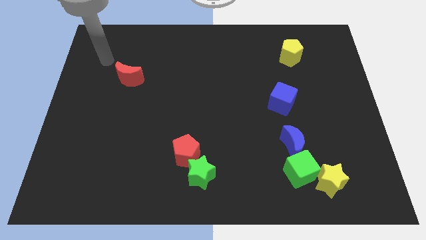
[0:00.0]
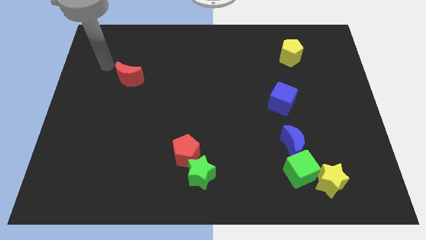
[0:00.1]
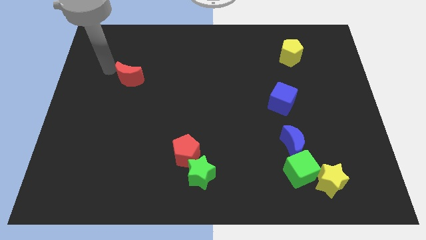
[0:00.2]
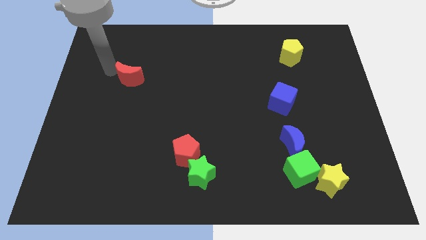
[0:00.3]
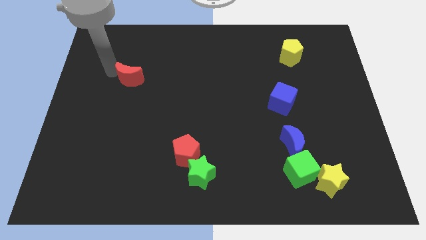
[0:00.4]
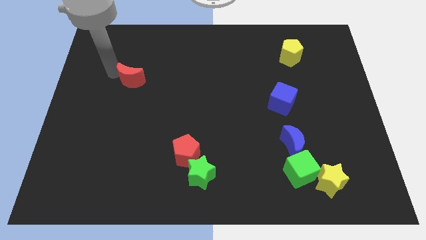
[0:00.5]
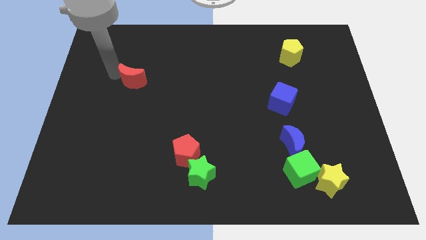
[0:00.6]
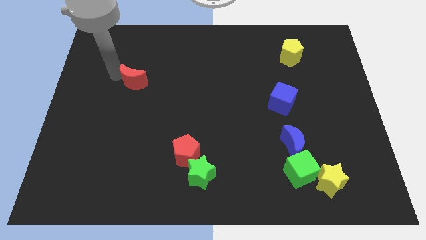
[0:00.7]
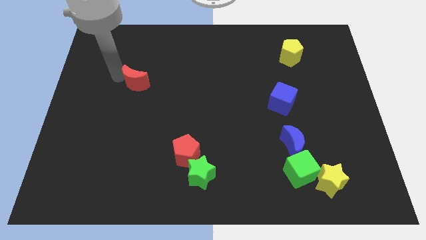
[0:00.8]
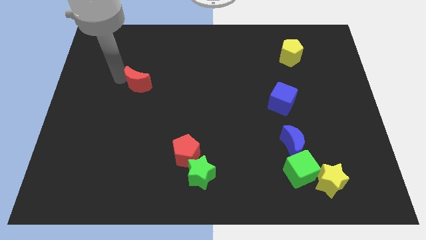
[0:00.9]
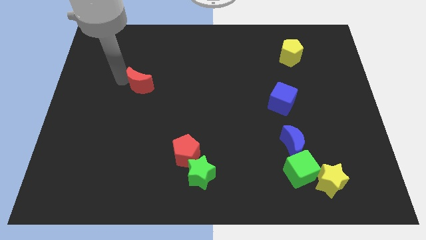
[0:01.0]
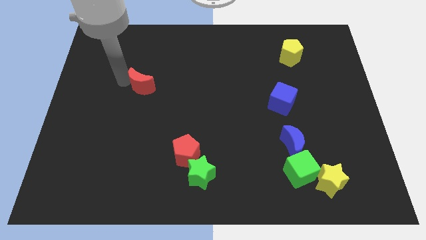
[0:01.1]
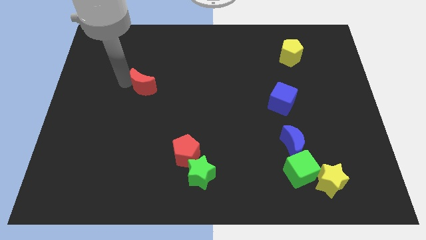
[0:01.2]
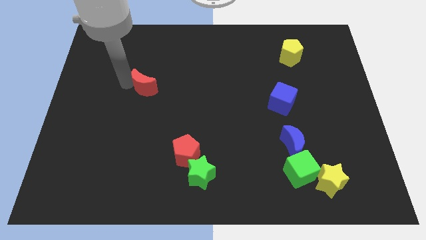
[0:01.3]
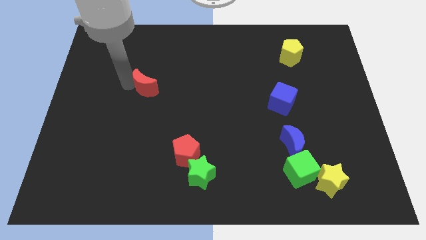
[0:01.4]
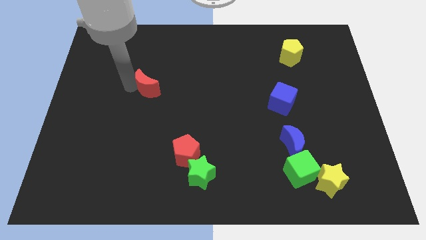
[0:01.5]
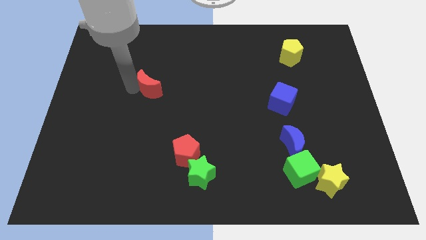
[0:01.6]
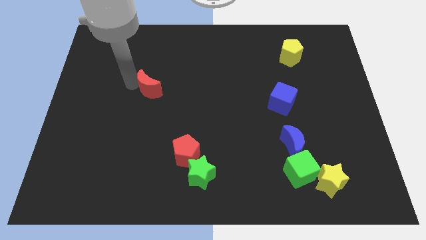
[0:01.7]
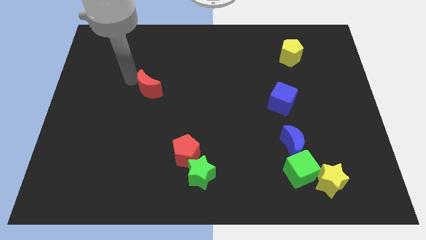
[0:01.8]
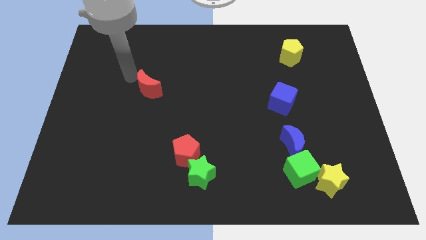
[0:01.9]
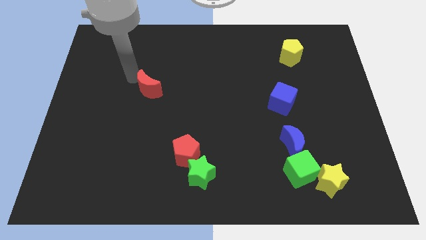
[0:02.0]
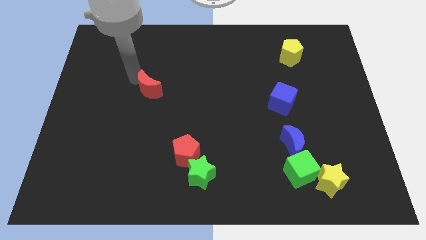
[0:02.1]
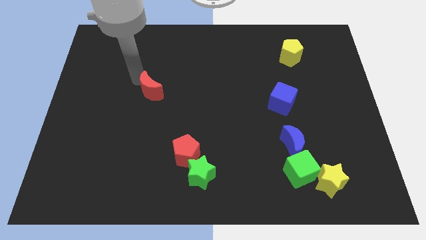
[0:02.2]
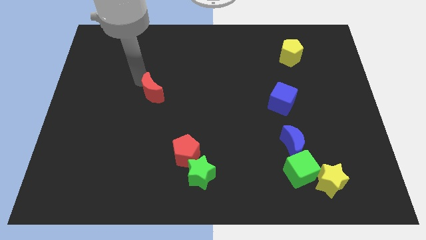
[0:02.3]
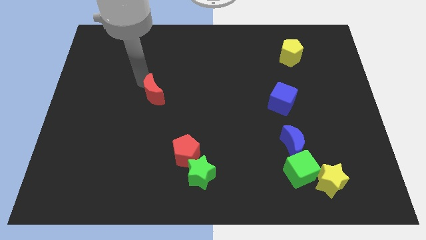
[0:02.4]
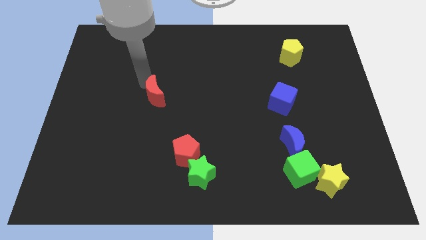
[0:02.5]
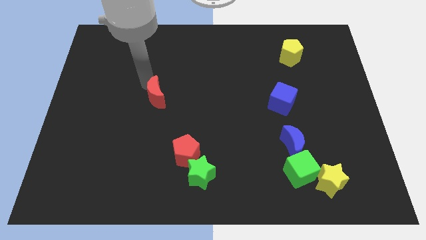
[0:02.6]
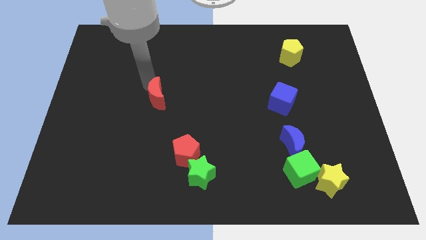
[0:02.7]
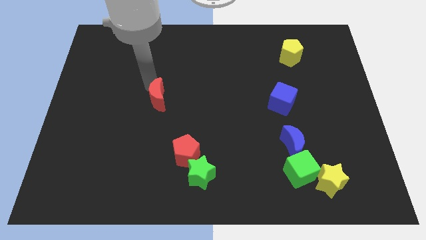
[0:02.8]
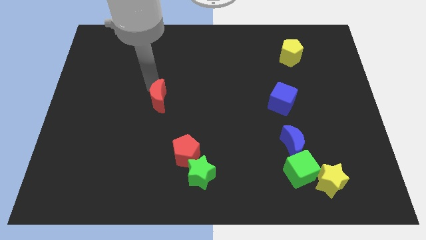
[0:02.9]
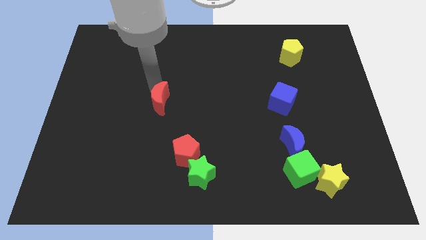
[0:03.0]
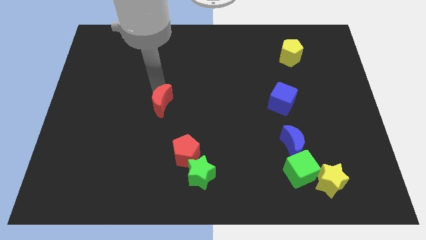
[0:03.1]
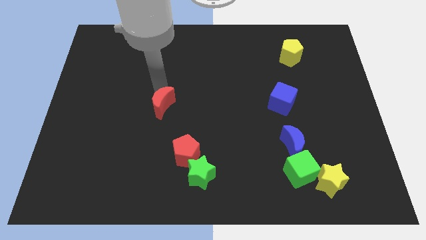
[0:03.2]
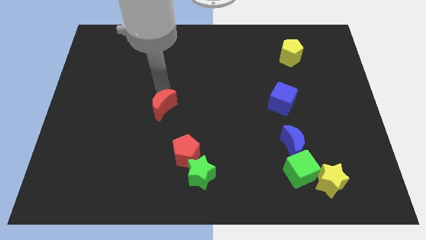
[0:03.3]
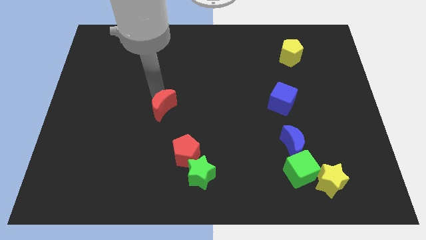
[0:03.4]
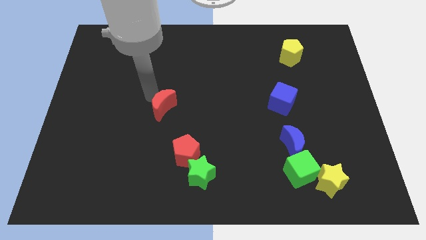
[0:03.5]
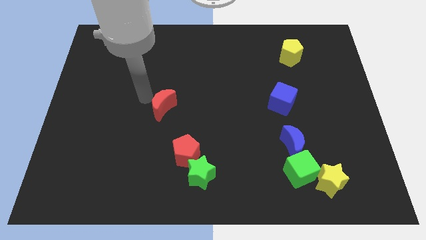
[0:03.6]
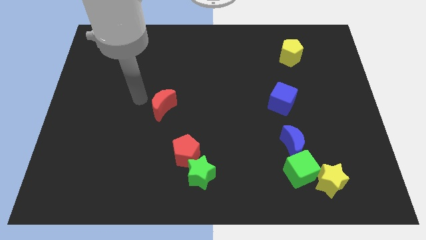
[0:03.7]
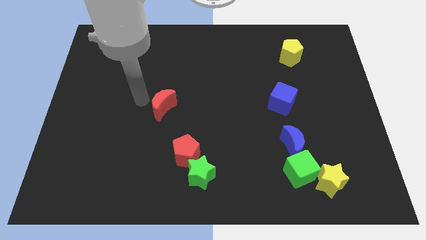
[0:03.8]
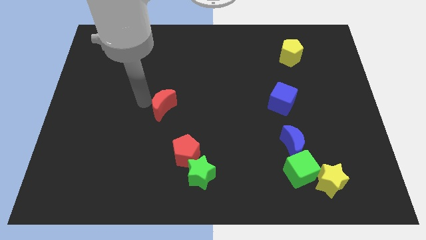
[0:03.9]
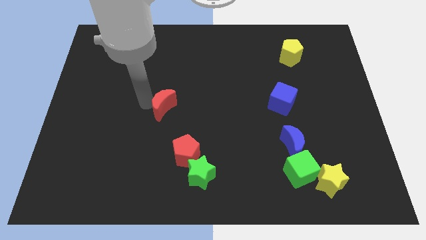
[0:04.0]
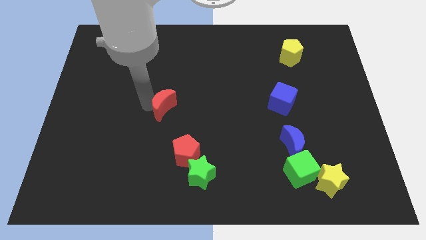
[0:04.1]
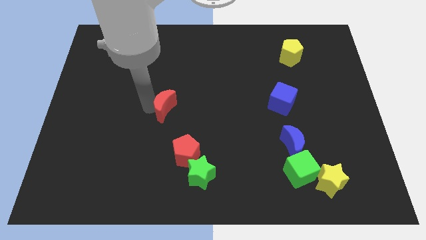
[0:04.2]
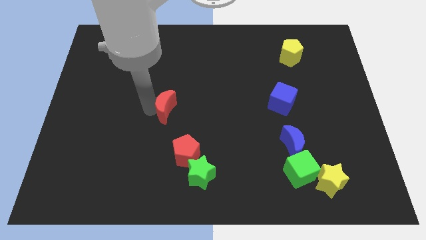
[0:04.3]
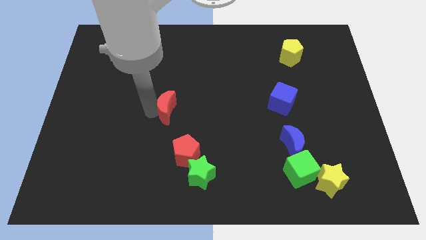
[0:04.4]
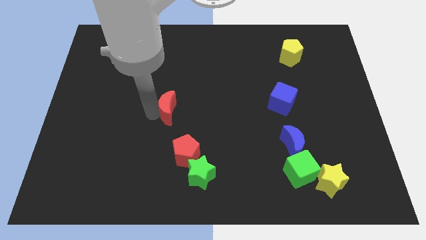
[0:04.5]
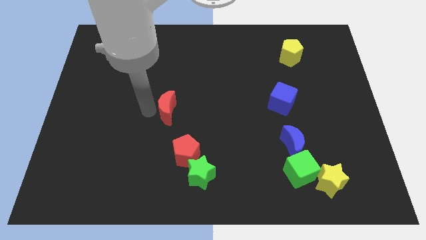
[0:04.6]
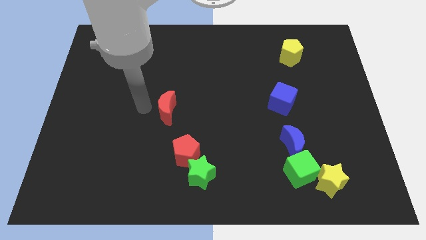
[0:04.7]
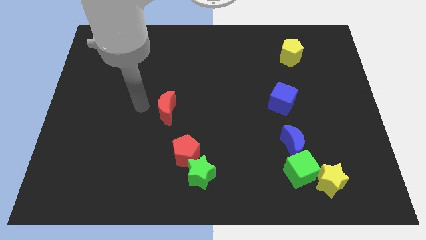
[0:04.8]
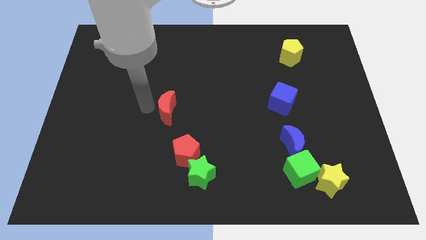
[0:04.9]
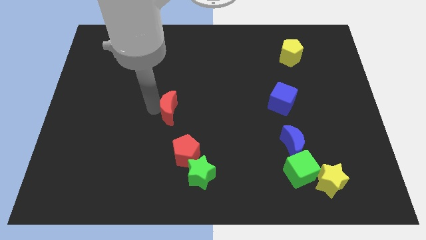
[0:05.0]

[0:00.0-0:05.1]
put the red moon above the red pentagon

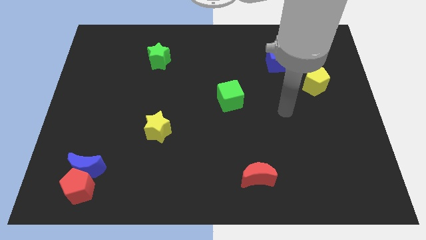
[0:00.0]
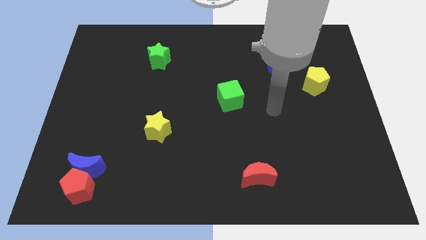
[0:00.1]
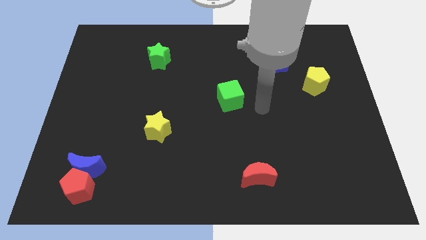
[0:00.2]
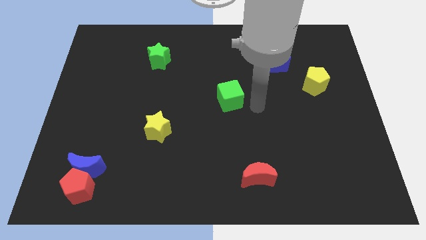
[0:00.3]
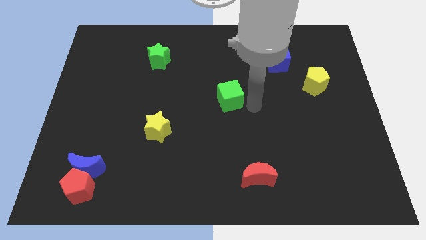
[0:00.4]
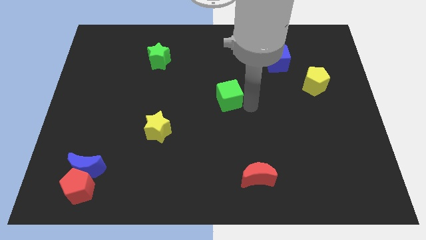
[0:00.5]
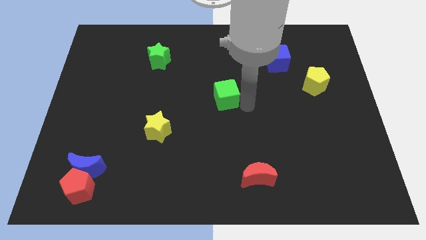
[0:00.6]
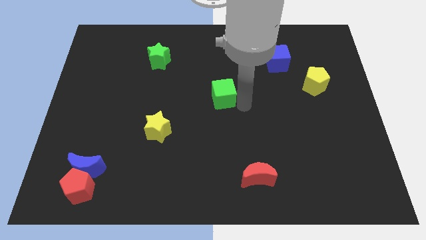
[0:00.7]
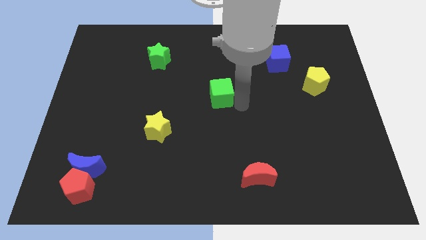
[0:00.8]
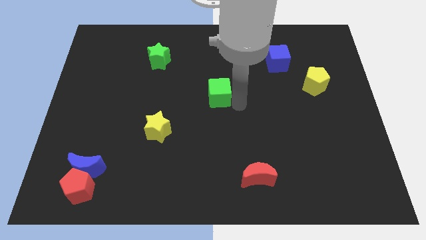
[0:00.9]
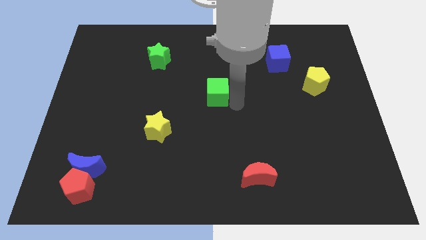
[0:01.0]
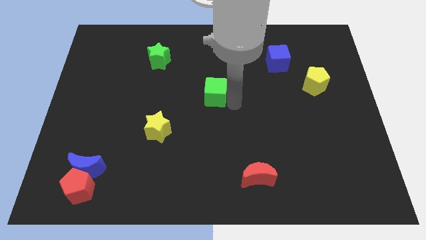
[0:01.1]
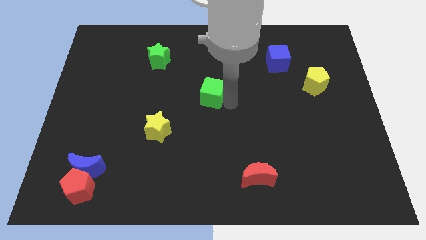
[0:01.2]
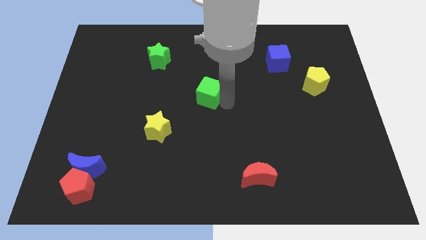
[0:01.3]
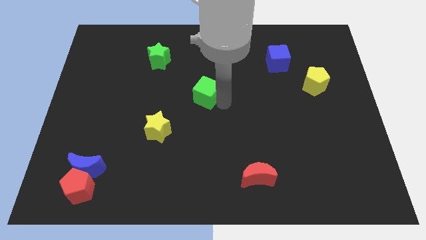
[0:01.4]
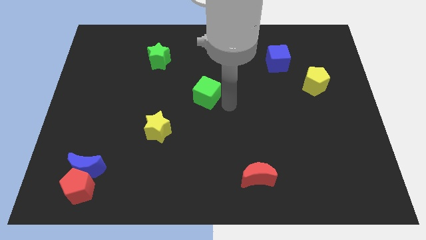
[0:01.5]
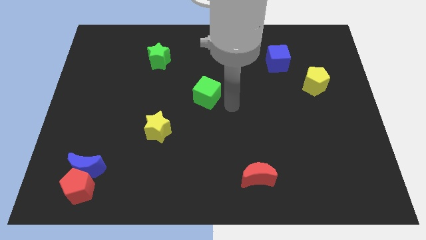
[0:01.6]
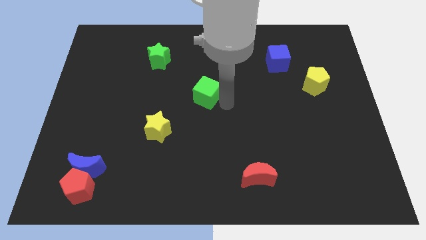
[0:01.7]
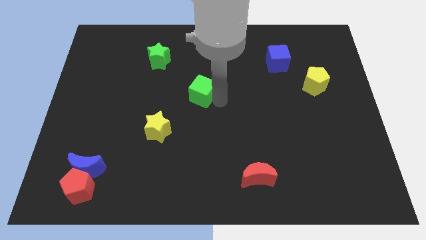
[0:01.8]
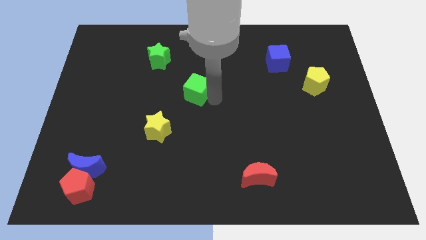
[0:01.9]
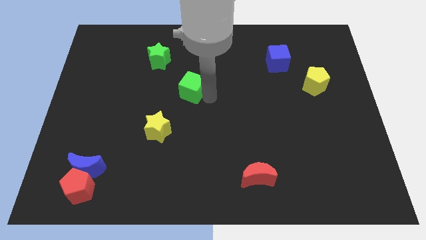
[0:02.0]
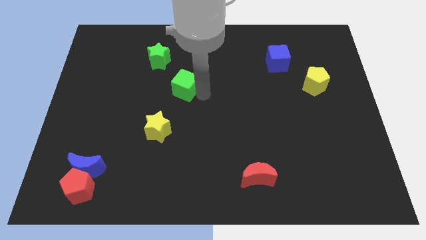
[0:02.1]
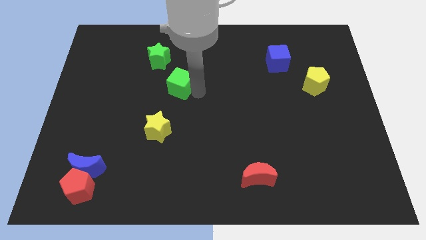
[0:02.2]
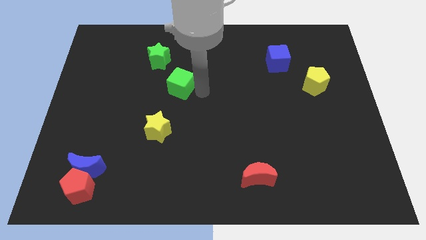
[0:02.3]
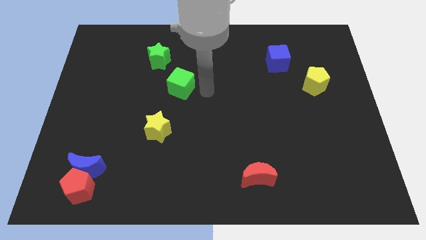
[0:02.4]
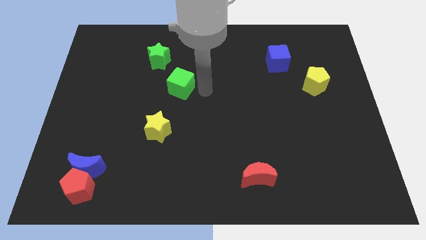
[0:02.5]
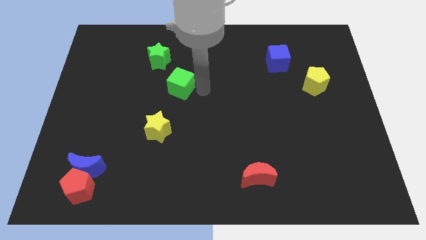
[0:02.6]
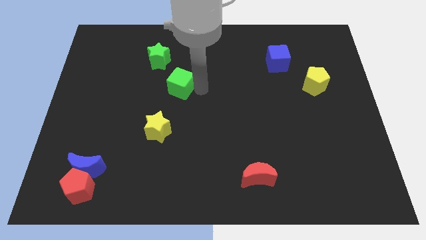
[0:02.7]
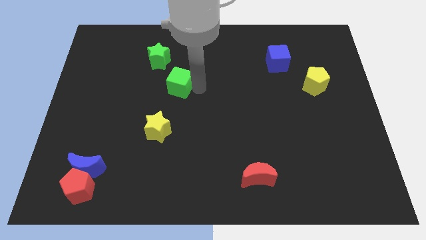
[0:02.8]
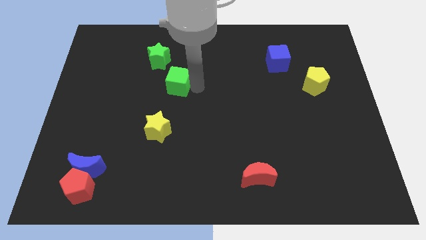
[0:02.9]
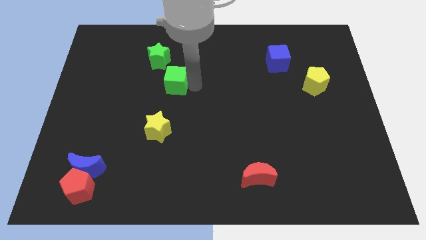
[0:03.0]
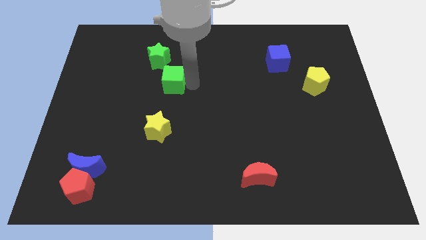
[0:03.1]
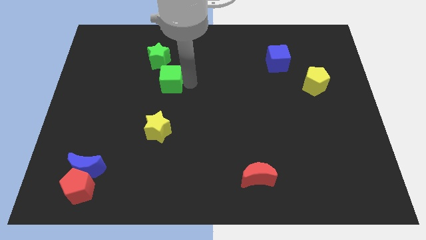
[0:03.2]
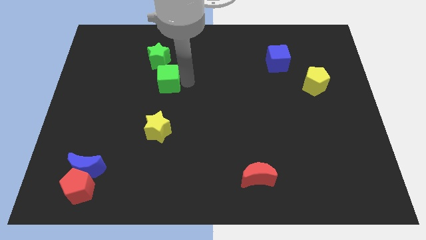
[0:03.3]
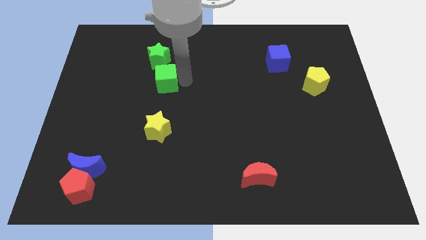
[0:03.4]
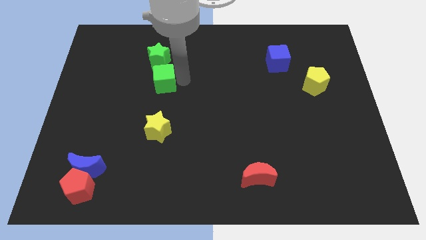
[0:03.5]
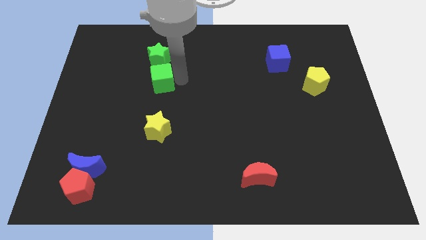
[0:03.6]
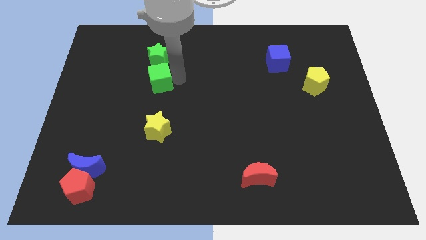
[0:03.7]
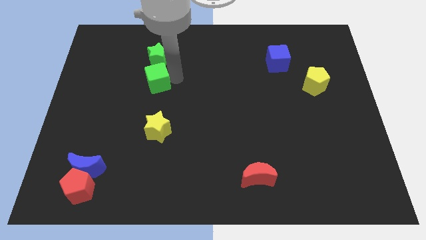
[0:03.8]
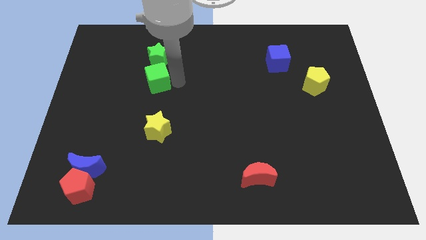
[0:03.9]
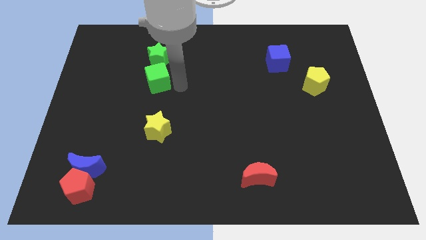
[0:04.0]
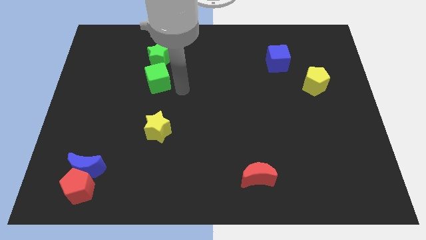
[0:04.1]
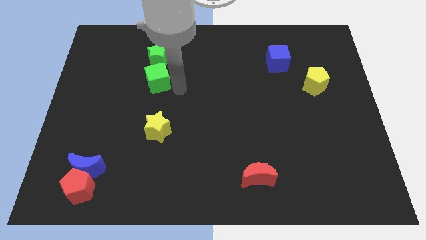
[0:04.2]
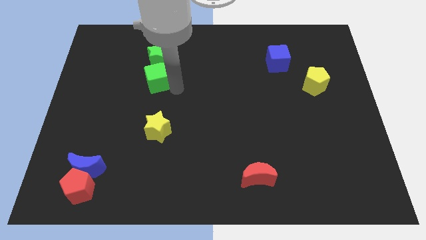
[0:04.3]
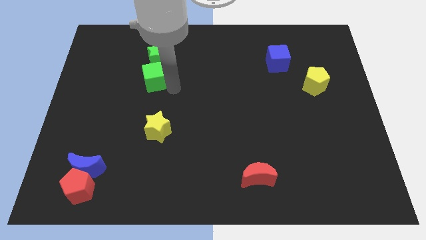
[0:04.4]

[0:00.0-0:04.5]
slide the green cube to the bottom left side of the green star
